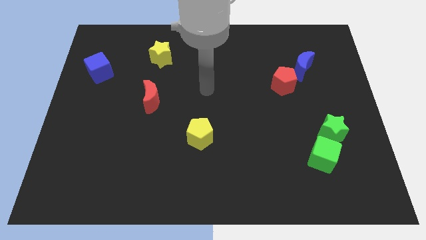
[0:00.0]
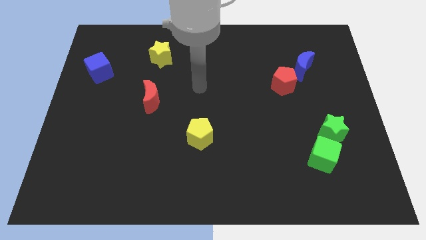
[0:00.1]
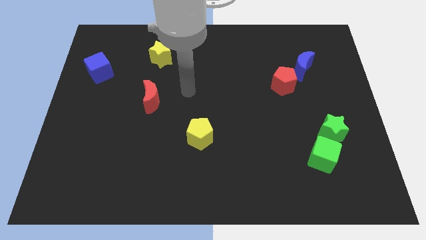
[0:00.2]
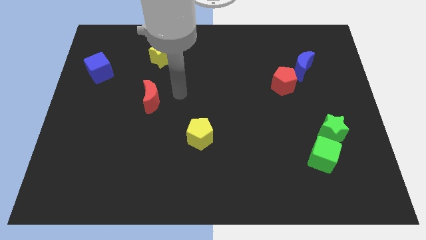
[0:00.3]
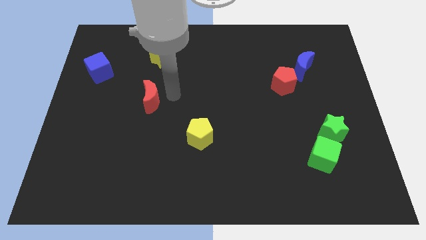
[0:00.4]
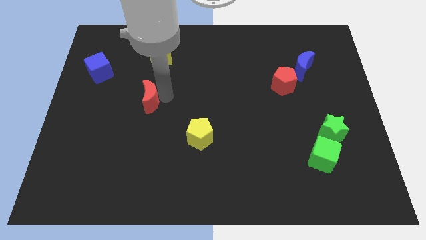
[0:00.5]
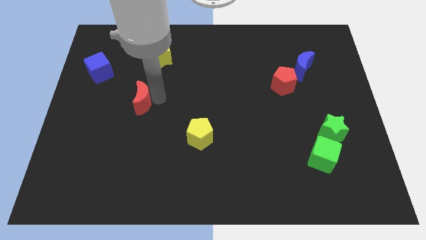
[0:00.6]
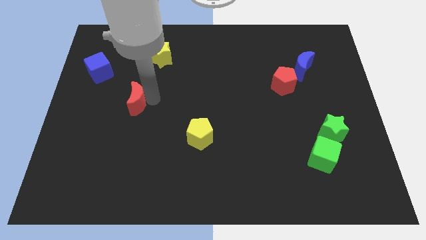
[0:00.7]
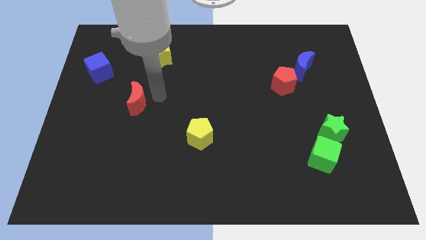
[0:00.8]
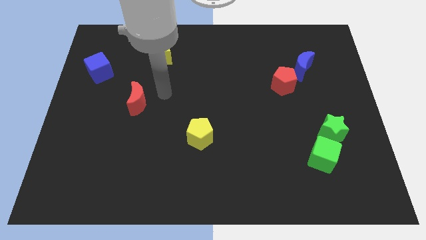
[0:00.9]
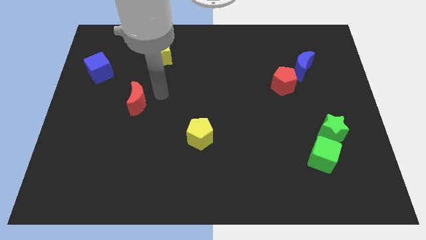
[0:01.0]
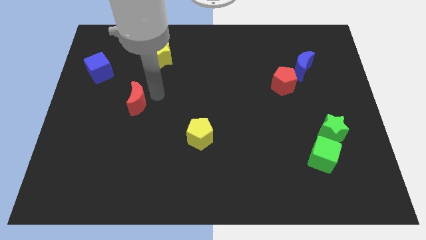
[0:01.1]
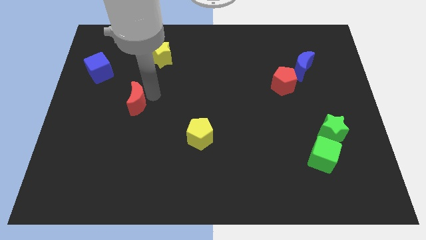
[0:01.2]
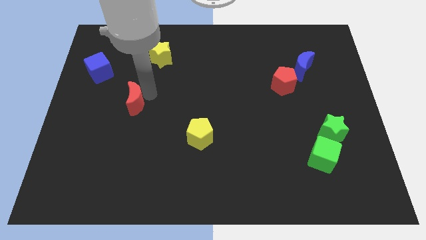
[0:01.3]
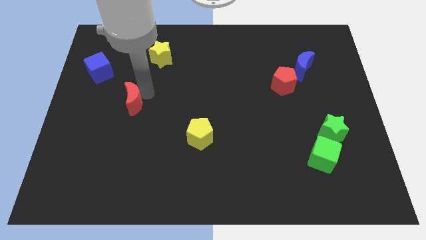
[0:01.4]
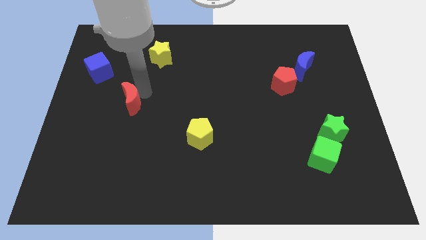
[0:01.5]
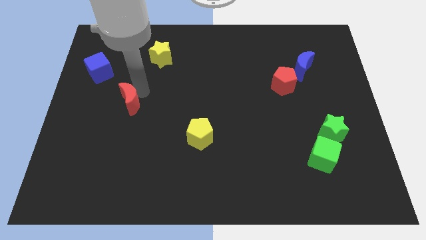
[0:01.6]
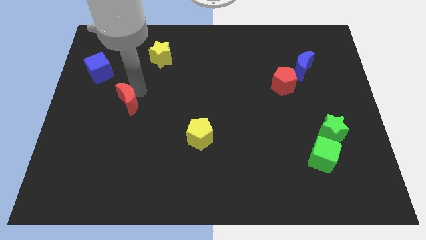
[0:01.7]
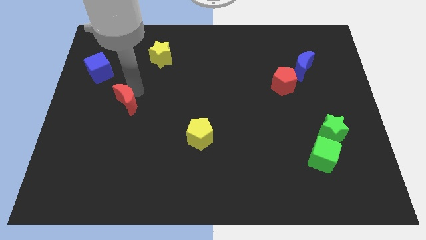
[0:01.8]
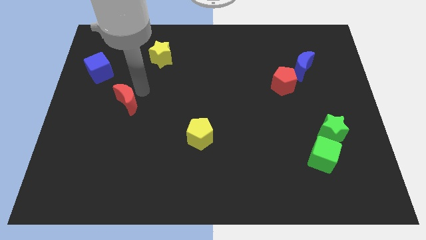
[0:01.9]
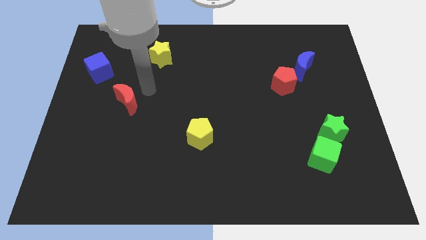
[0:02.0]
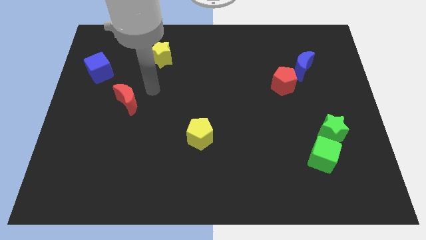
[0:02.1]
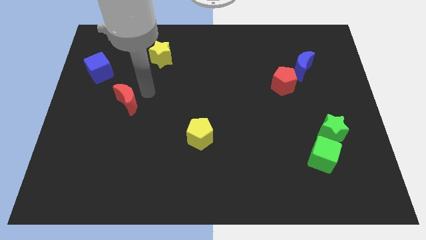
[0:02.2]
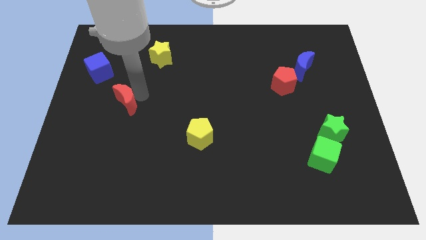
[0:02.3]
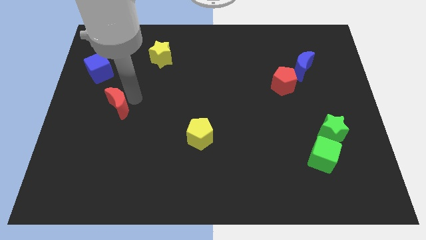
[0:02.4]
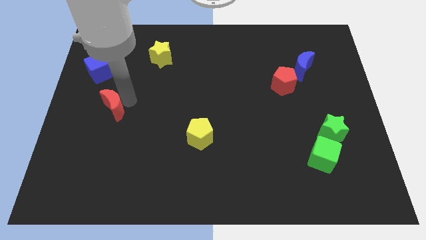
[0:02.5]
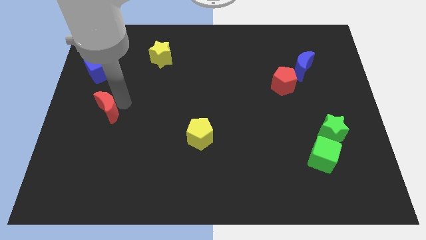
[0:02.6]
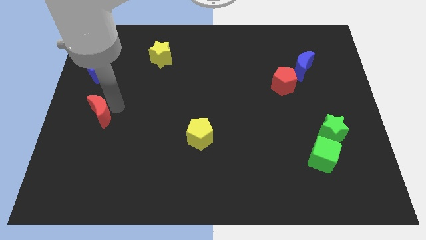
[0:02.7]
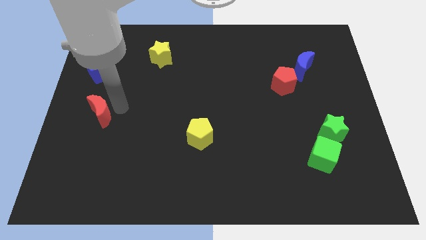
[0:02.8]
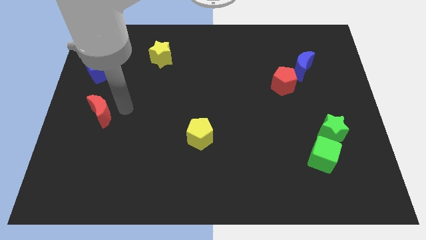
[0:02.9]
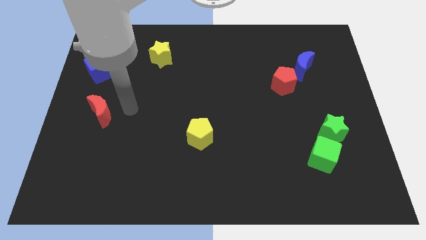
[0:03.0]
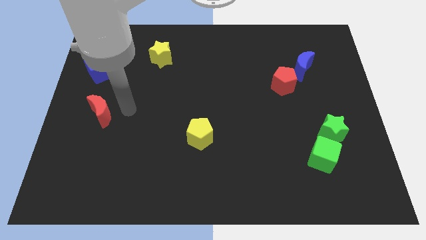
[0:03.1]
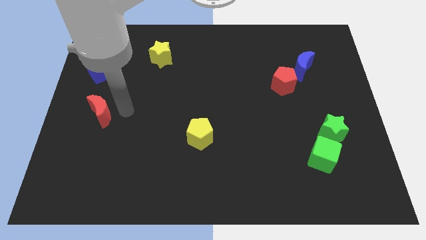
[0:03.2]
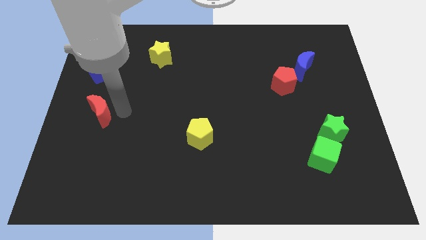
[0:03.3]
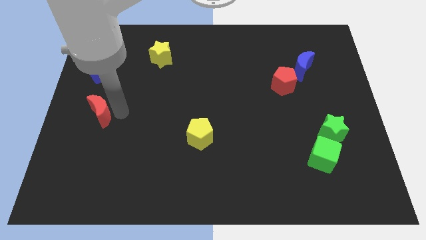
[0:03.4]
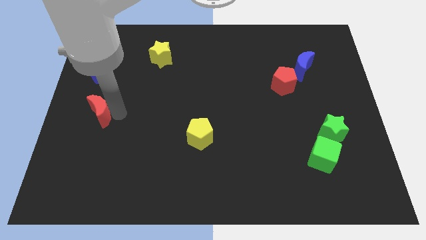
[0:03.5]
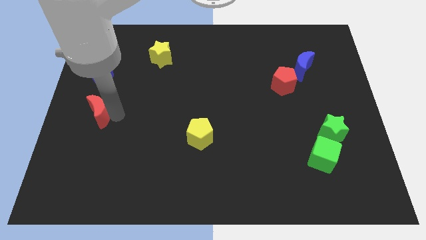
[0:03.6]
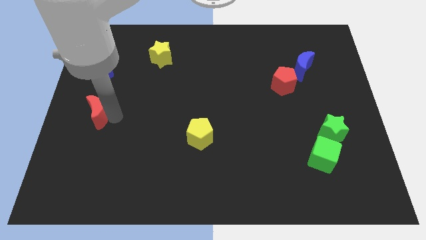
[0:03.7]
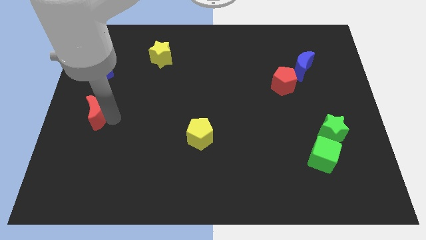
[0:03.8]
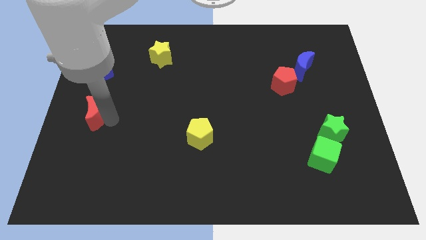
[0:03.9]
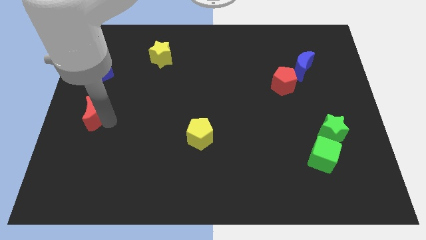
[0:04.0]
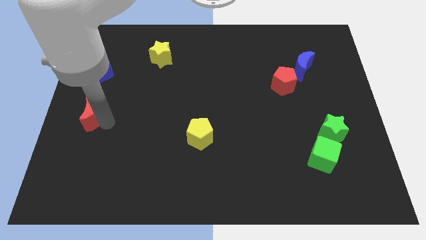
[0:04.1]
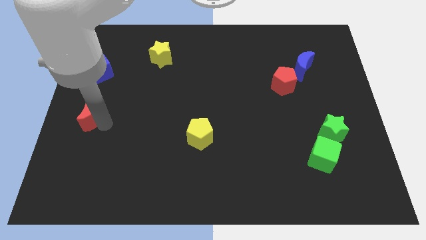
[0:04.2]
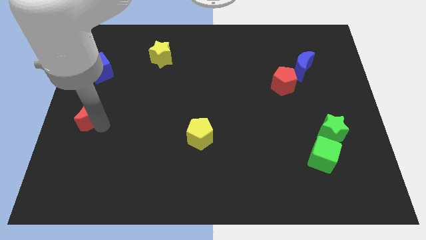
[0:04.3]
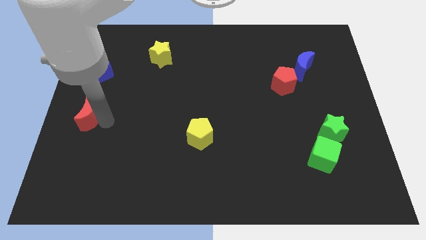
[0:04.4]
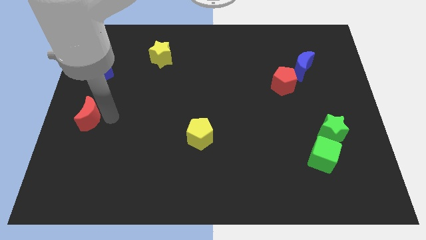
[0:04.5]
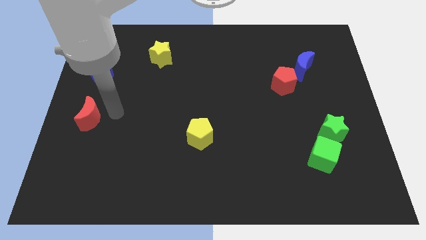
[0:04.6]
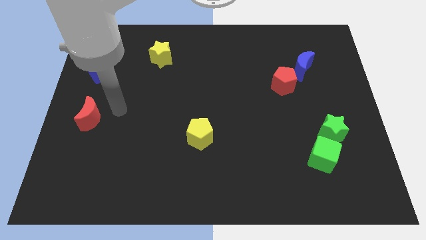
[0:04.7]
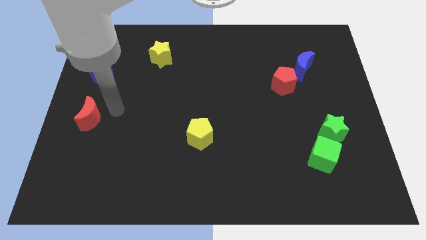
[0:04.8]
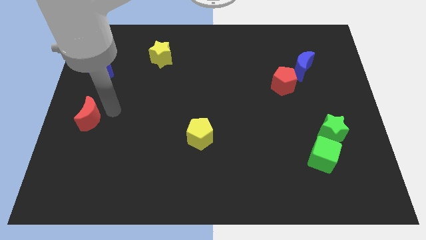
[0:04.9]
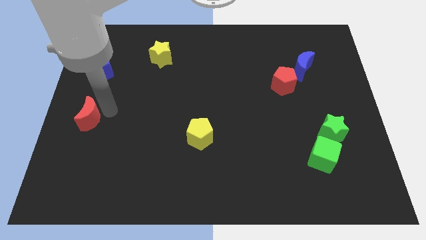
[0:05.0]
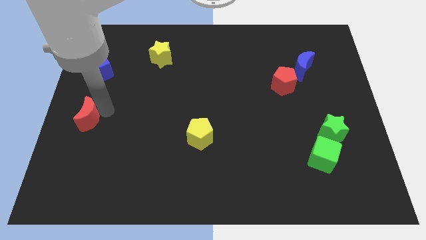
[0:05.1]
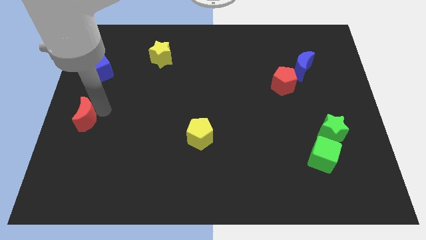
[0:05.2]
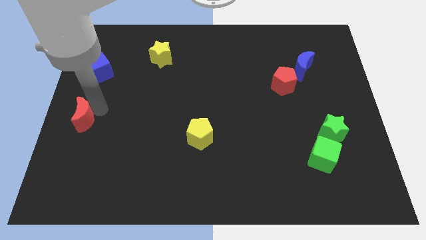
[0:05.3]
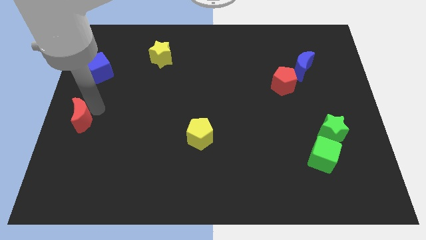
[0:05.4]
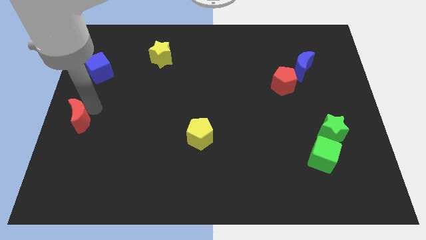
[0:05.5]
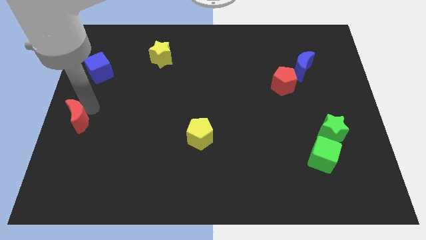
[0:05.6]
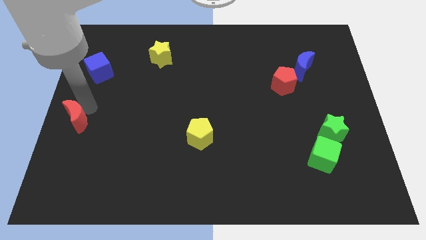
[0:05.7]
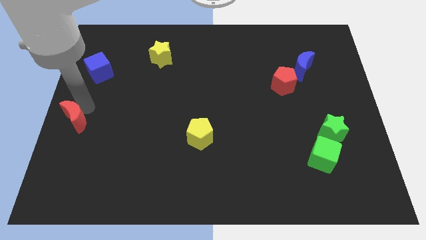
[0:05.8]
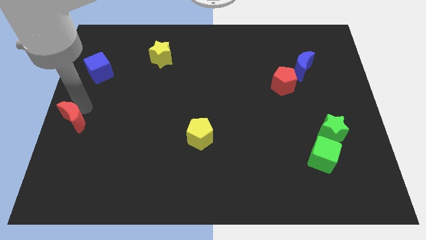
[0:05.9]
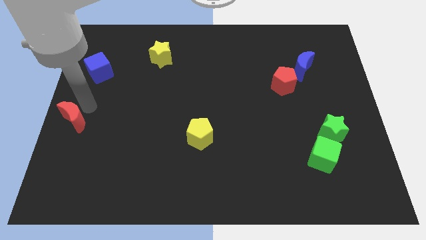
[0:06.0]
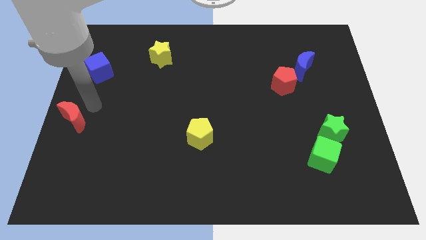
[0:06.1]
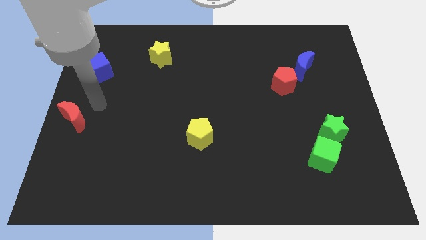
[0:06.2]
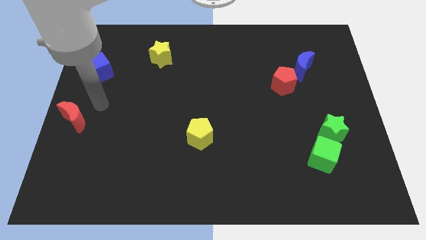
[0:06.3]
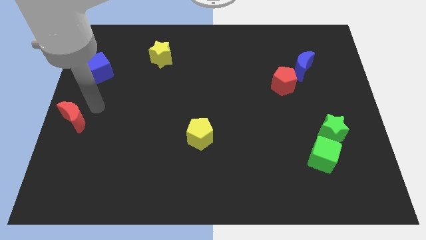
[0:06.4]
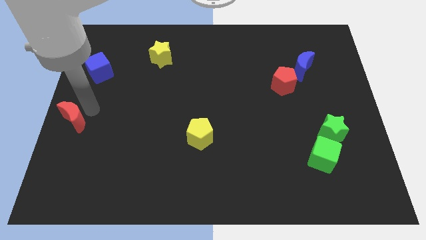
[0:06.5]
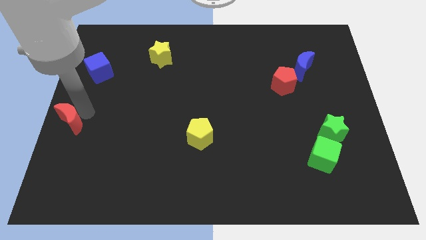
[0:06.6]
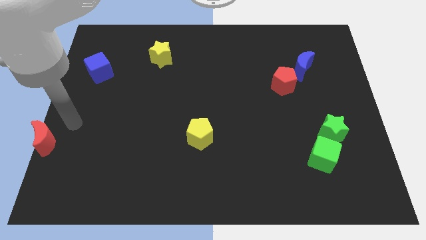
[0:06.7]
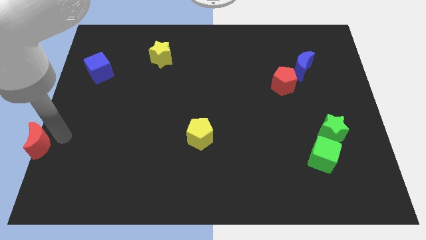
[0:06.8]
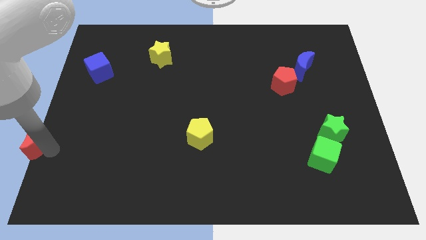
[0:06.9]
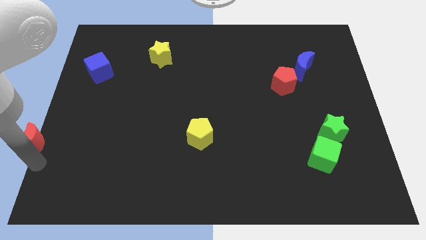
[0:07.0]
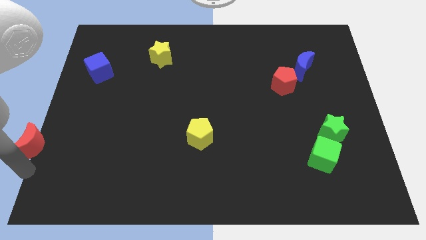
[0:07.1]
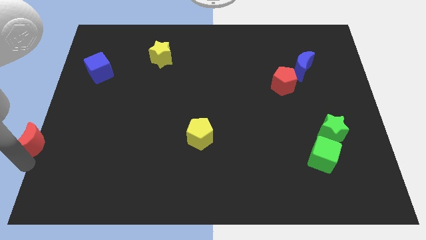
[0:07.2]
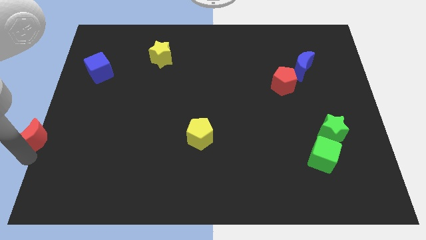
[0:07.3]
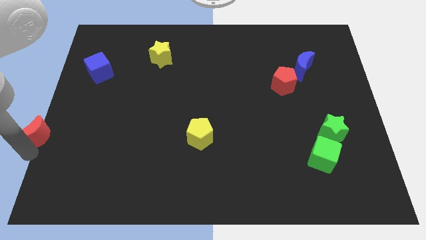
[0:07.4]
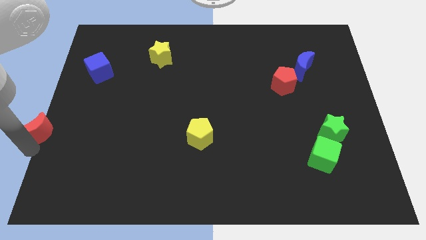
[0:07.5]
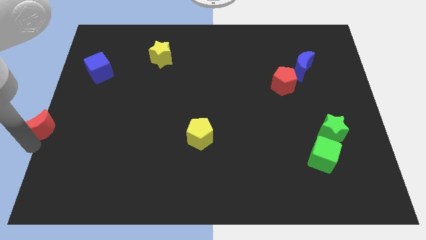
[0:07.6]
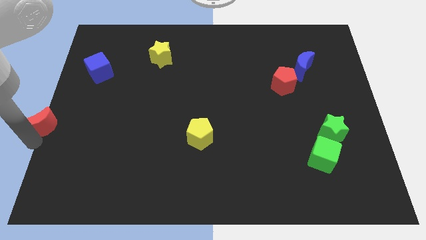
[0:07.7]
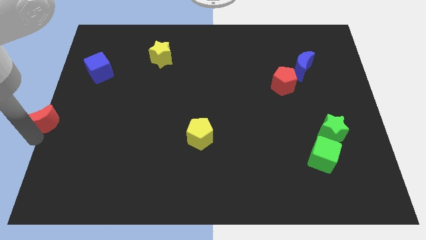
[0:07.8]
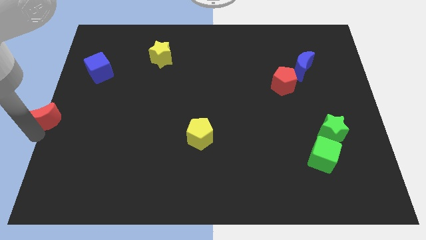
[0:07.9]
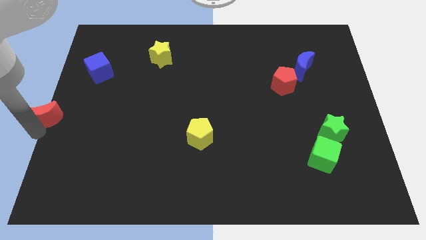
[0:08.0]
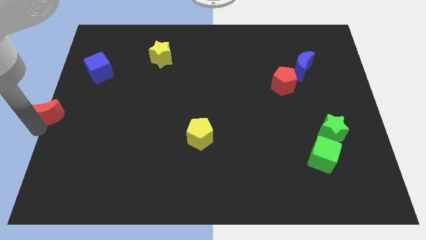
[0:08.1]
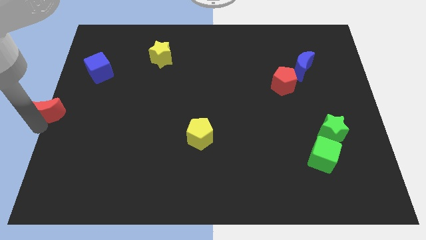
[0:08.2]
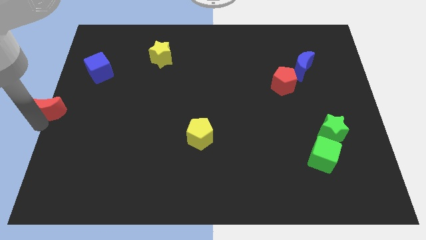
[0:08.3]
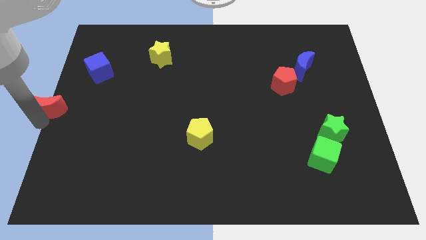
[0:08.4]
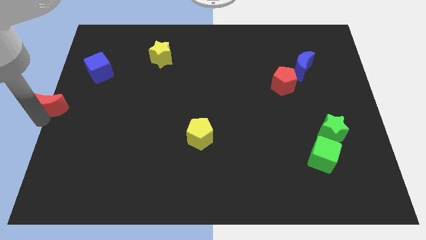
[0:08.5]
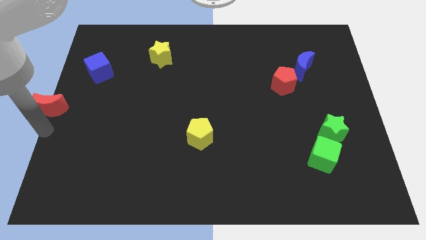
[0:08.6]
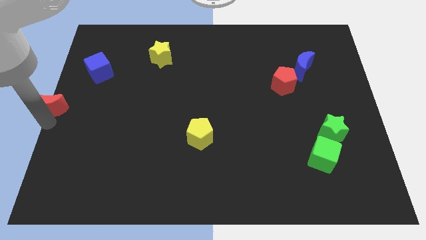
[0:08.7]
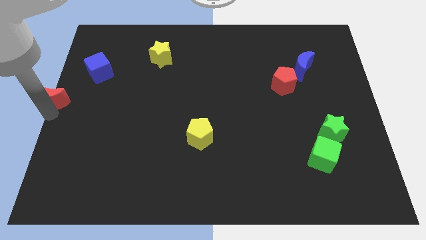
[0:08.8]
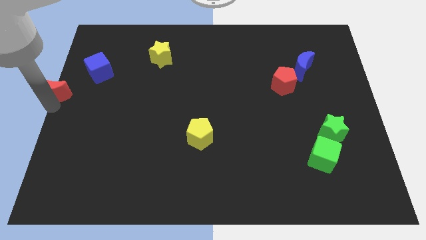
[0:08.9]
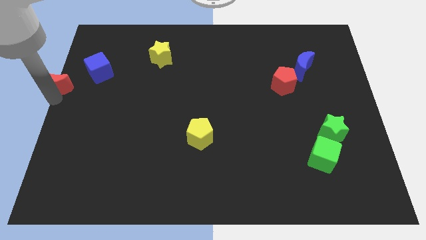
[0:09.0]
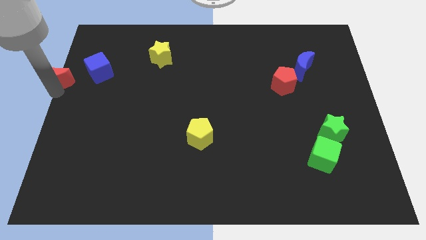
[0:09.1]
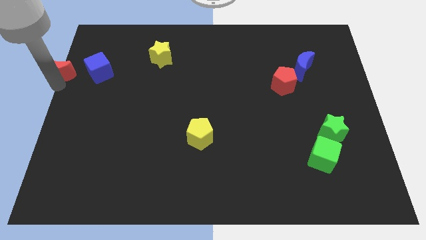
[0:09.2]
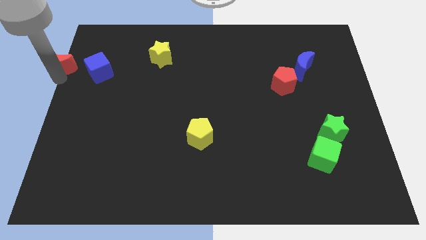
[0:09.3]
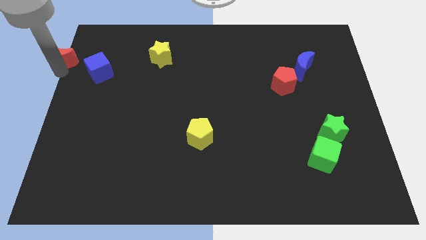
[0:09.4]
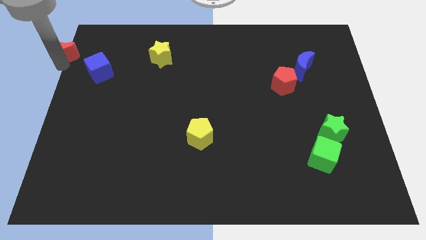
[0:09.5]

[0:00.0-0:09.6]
push the red moon to the upper left corner
